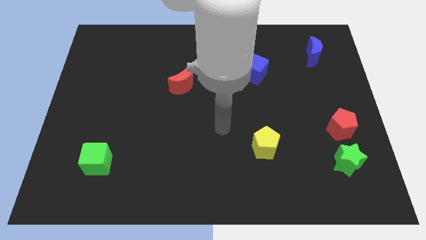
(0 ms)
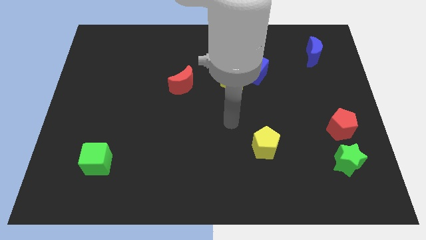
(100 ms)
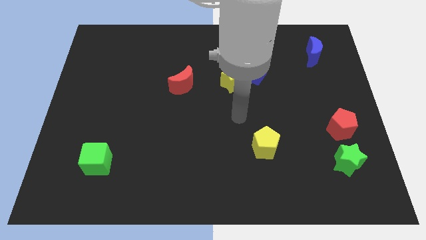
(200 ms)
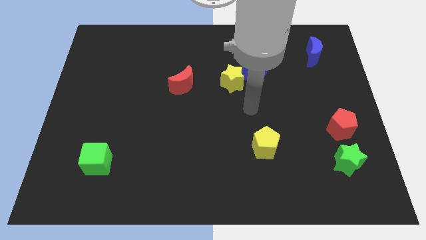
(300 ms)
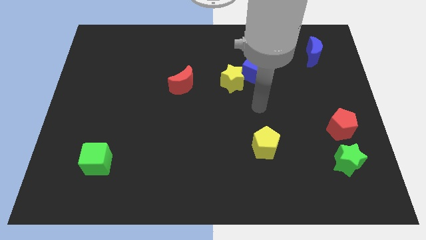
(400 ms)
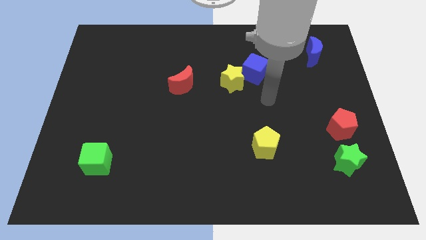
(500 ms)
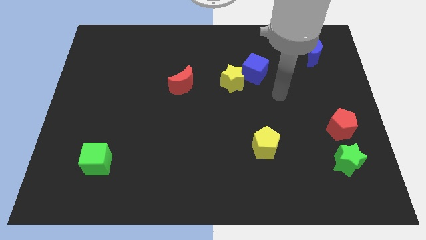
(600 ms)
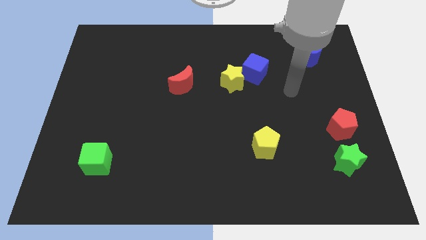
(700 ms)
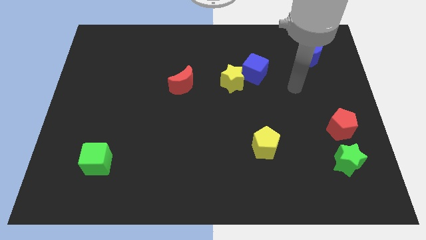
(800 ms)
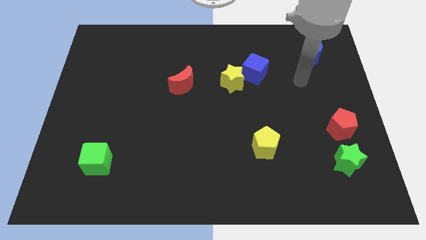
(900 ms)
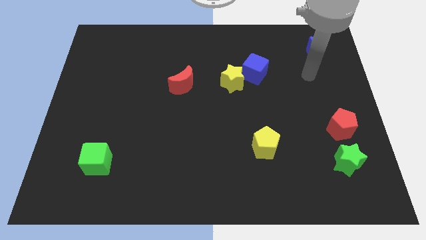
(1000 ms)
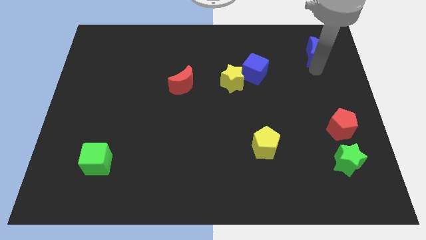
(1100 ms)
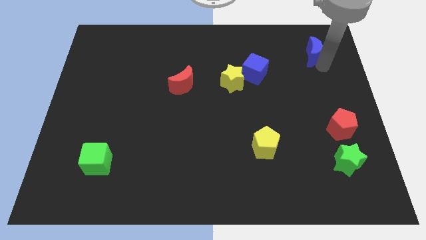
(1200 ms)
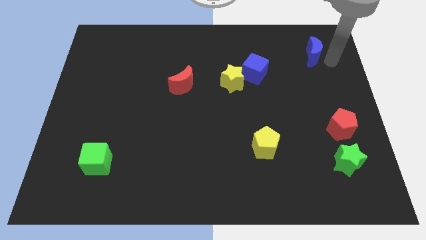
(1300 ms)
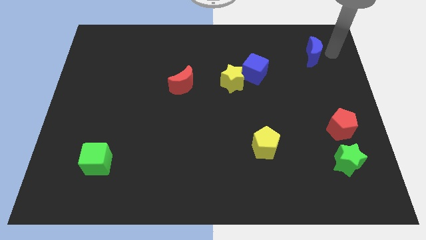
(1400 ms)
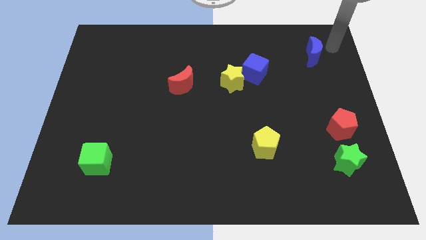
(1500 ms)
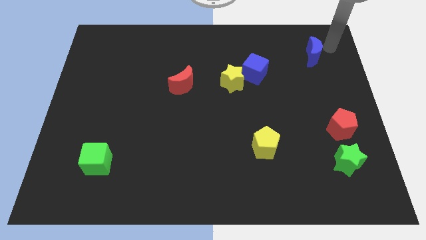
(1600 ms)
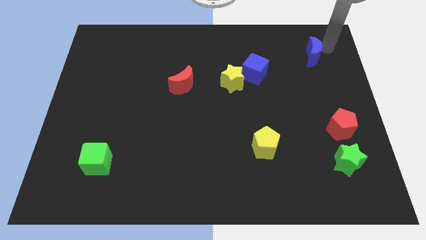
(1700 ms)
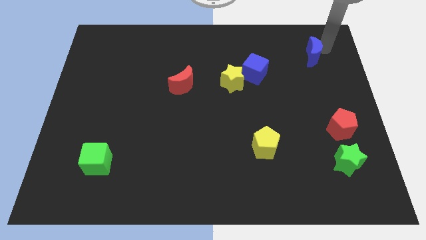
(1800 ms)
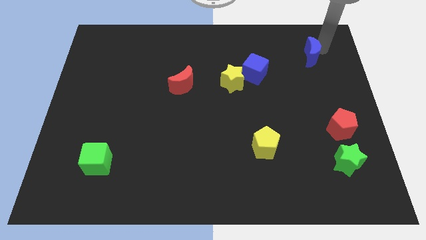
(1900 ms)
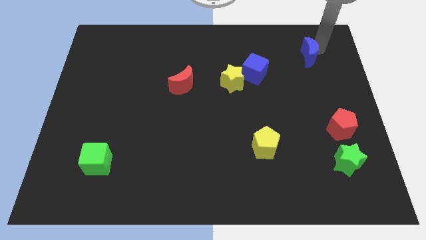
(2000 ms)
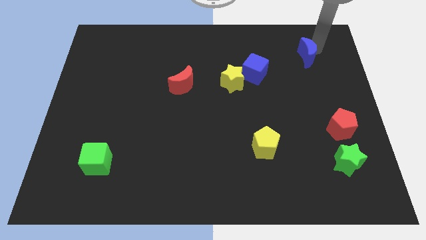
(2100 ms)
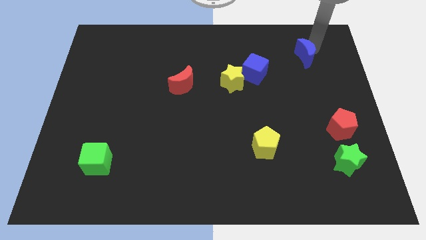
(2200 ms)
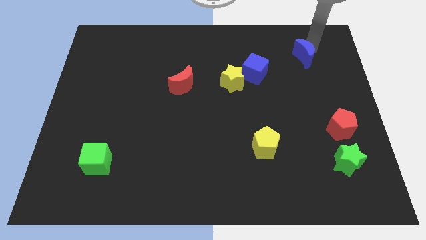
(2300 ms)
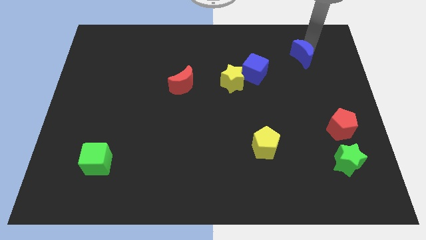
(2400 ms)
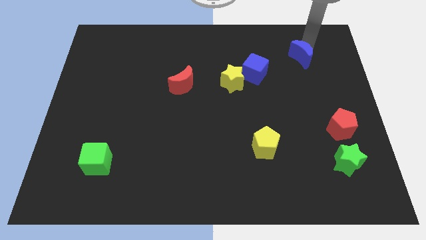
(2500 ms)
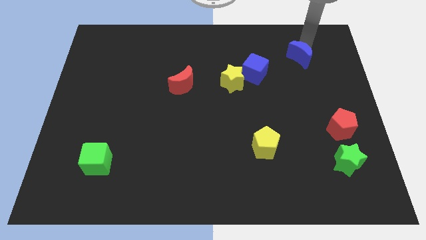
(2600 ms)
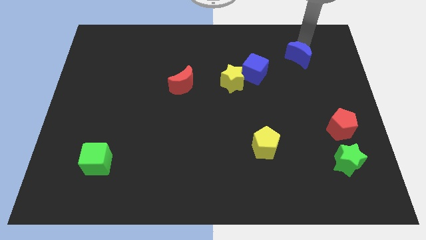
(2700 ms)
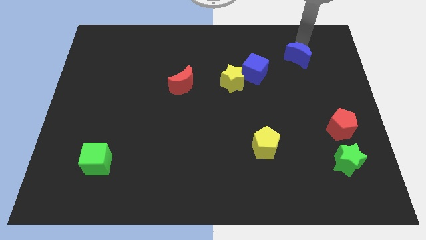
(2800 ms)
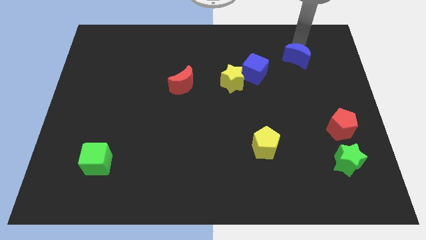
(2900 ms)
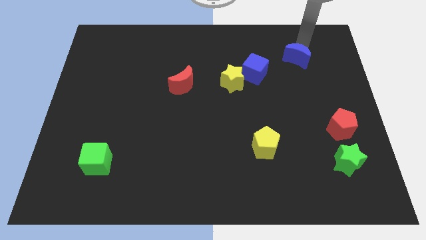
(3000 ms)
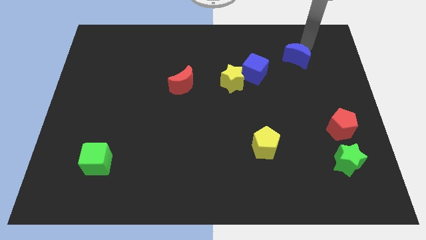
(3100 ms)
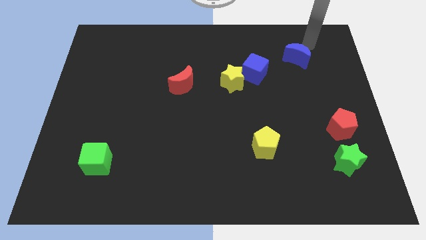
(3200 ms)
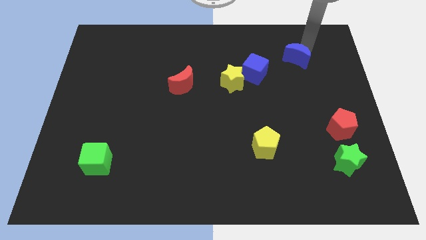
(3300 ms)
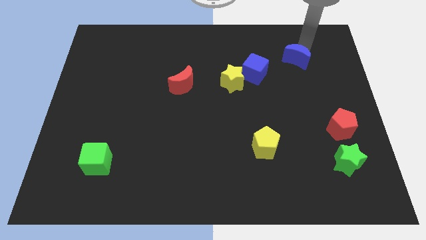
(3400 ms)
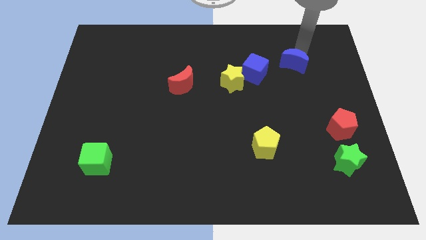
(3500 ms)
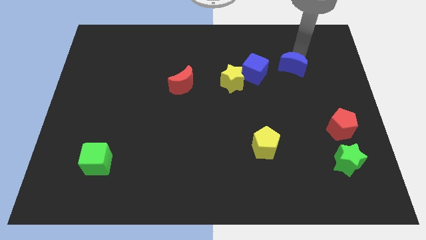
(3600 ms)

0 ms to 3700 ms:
slightly push the blue moon downwards and then left

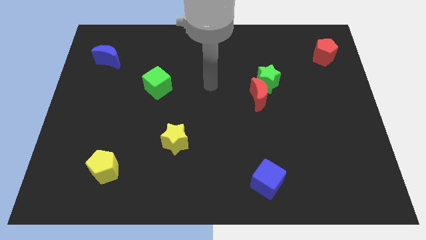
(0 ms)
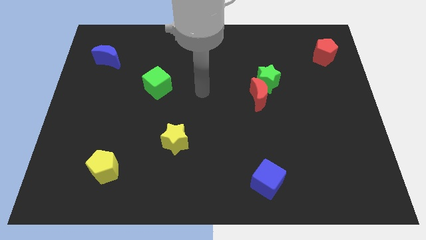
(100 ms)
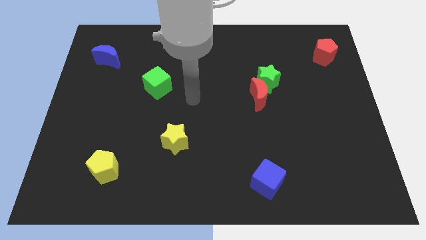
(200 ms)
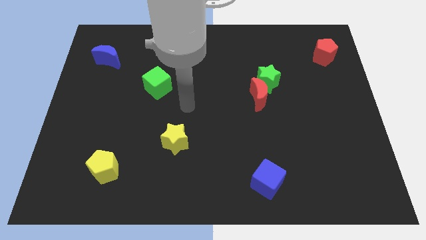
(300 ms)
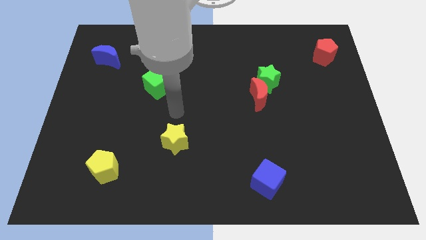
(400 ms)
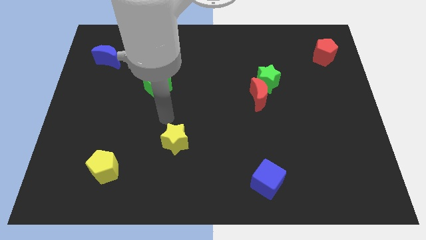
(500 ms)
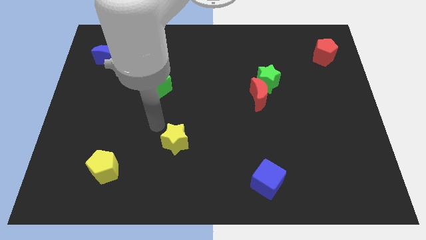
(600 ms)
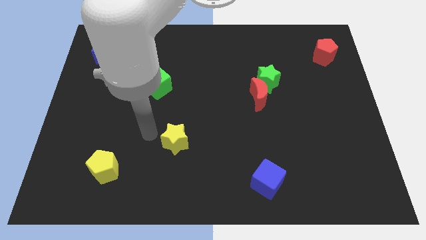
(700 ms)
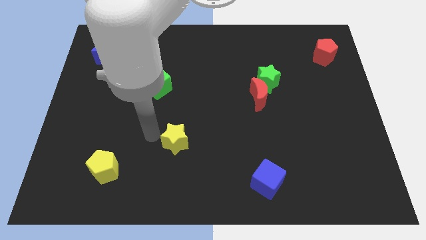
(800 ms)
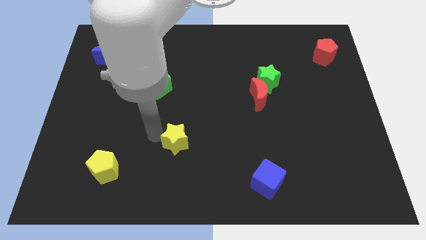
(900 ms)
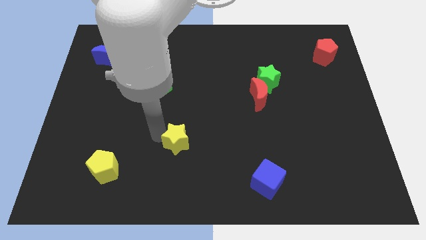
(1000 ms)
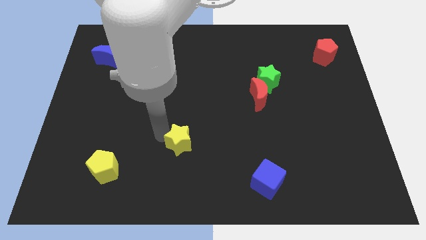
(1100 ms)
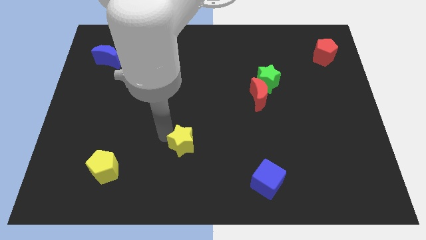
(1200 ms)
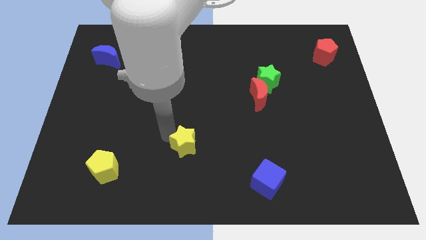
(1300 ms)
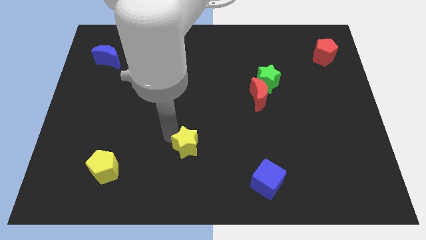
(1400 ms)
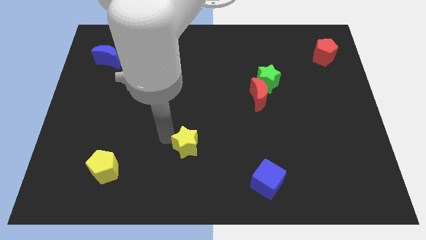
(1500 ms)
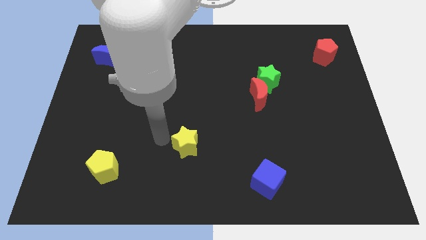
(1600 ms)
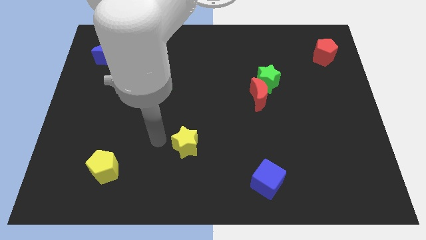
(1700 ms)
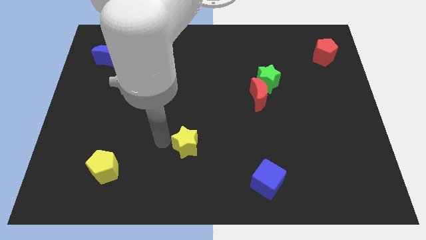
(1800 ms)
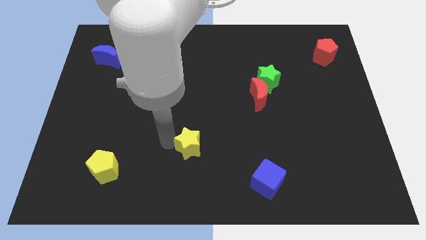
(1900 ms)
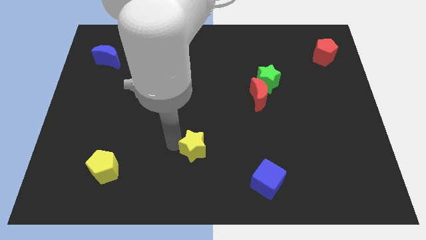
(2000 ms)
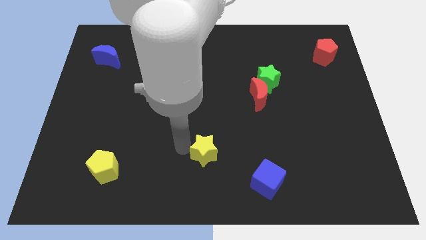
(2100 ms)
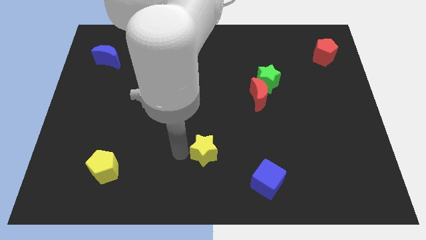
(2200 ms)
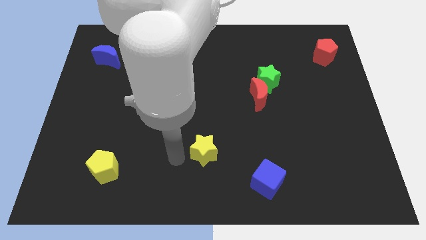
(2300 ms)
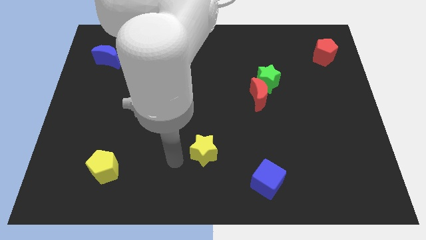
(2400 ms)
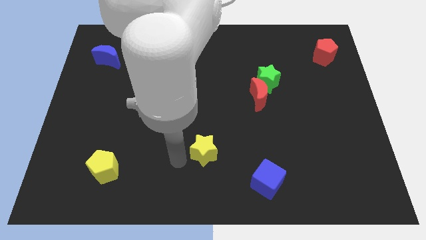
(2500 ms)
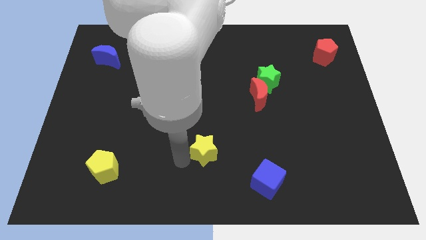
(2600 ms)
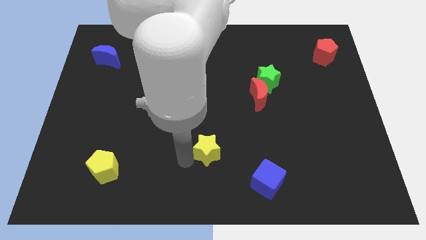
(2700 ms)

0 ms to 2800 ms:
slightly move the yellow star to the right

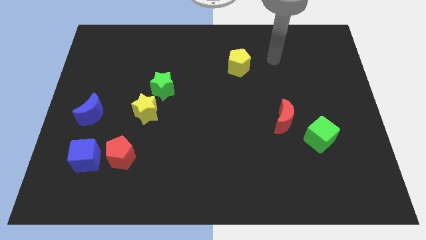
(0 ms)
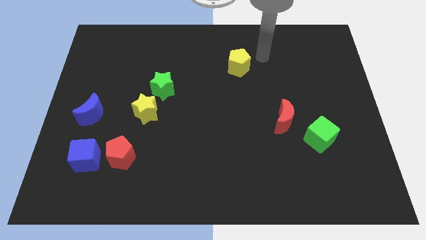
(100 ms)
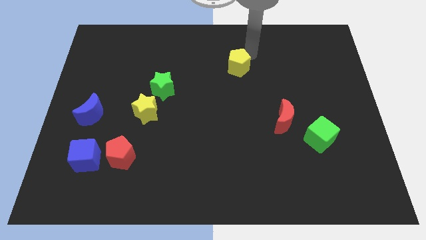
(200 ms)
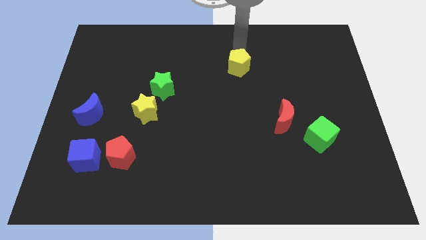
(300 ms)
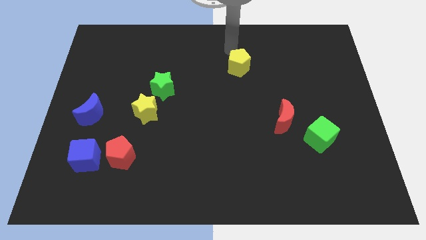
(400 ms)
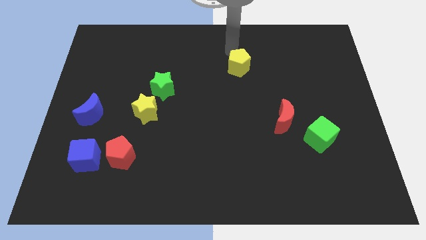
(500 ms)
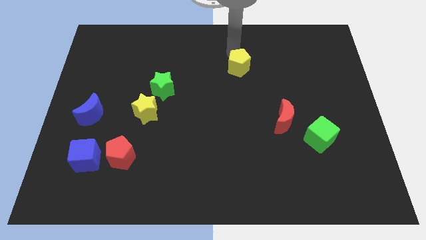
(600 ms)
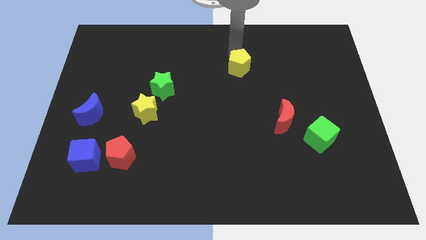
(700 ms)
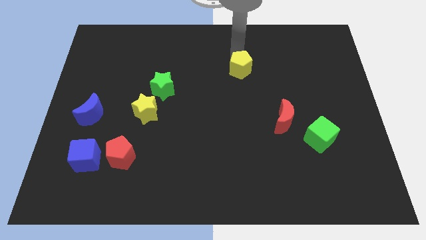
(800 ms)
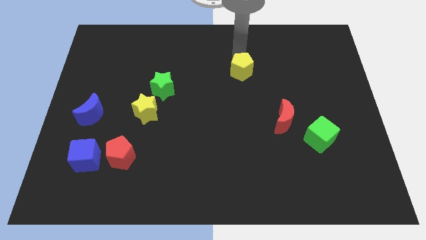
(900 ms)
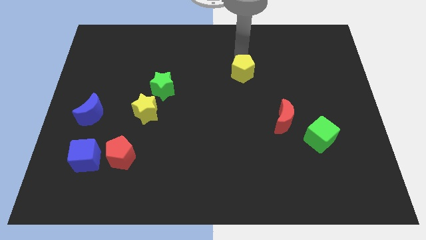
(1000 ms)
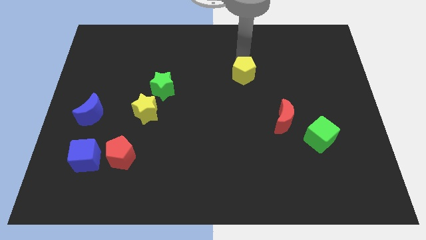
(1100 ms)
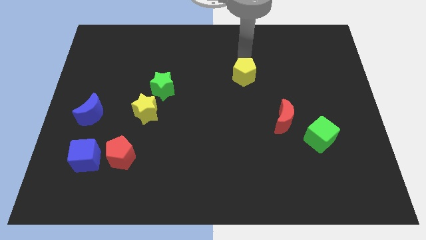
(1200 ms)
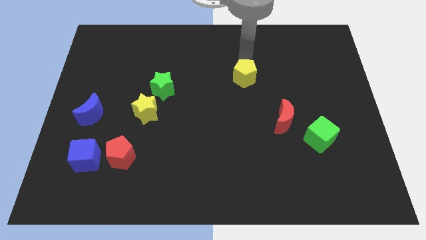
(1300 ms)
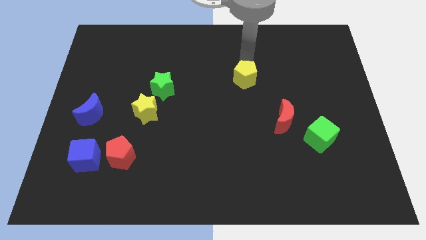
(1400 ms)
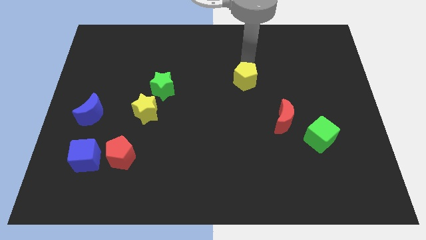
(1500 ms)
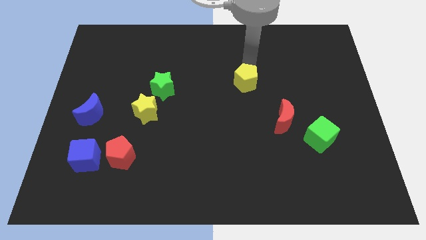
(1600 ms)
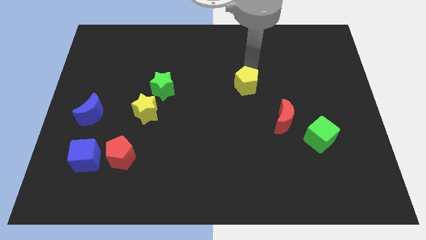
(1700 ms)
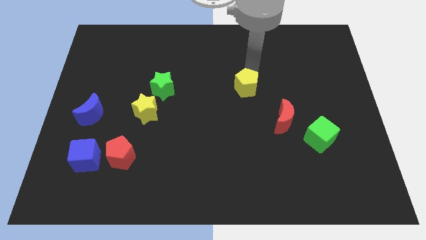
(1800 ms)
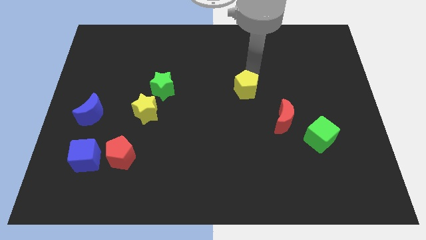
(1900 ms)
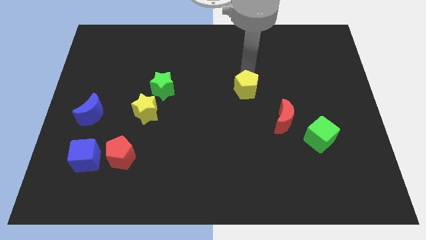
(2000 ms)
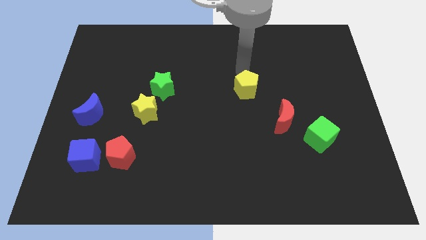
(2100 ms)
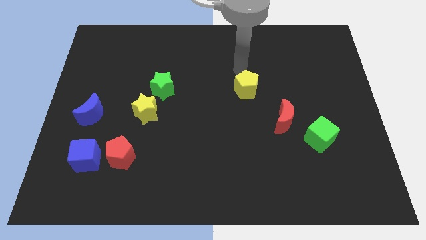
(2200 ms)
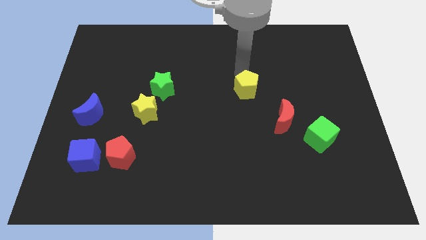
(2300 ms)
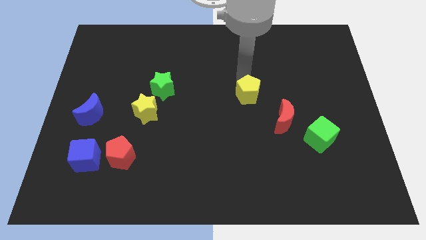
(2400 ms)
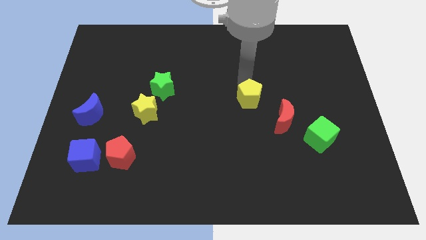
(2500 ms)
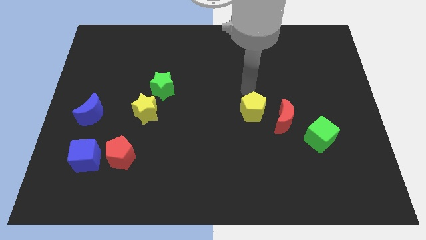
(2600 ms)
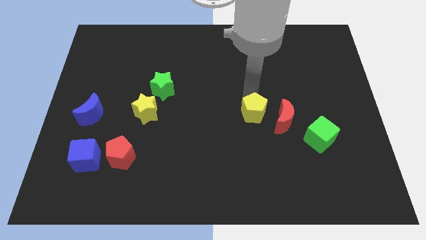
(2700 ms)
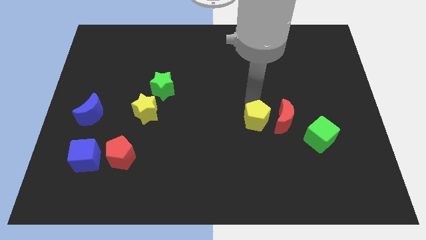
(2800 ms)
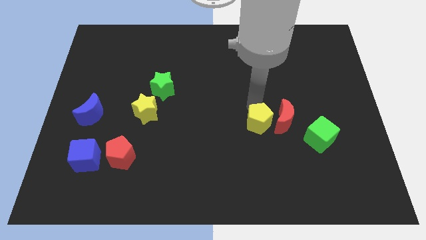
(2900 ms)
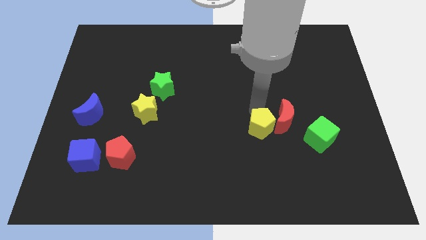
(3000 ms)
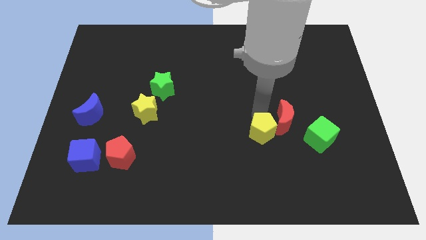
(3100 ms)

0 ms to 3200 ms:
slide the yellow pentagon down
